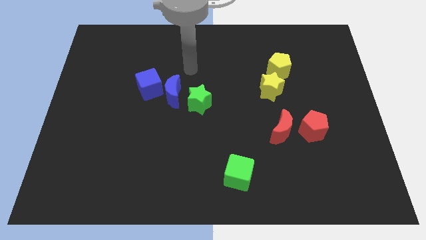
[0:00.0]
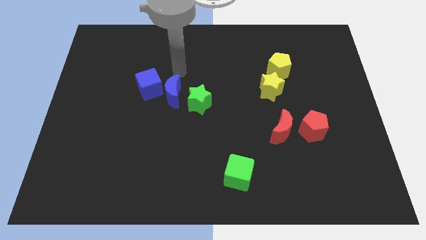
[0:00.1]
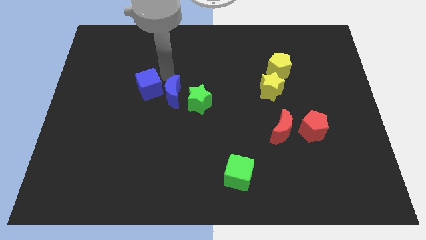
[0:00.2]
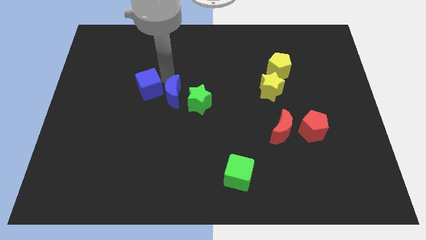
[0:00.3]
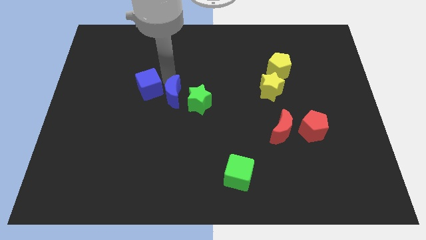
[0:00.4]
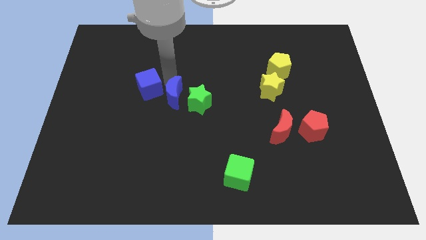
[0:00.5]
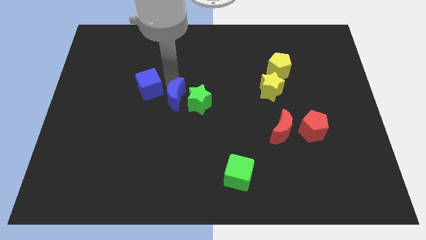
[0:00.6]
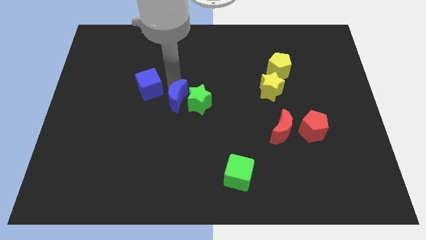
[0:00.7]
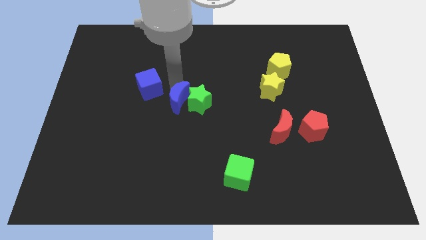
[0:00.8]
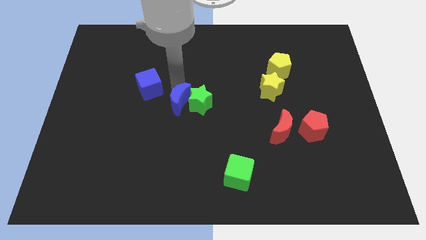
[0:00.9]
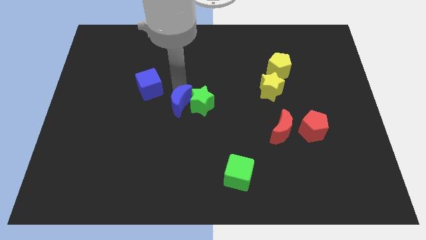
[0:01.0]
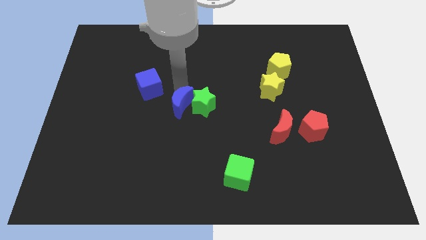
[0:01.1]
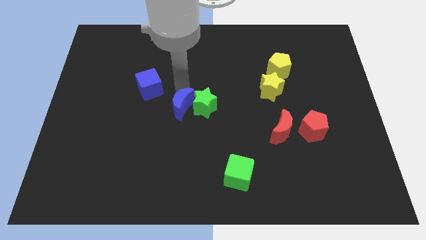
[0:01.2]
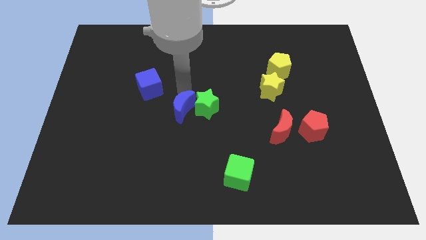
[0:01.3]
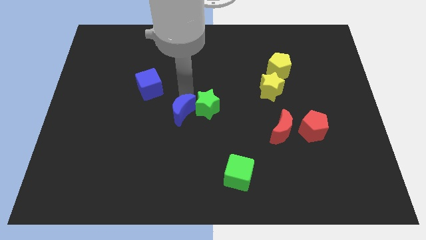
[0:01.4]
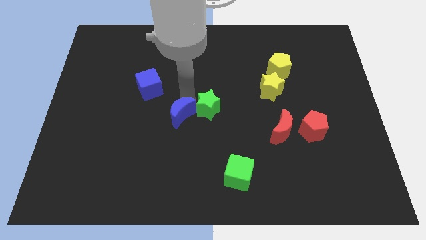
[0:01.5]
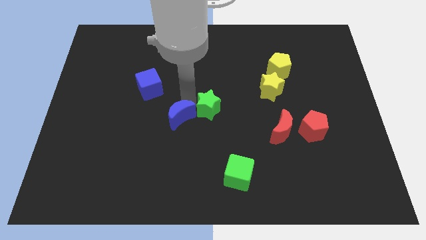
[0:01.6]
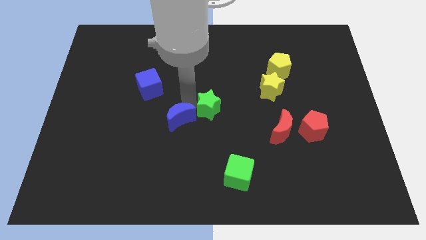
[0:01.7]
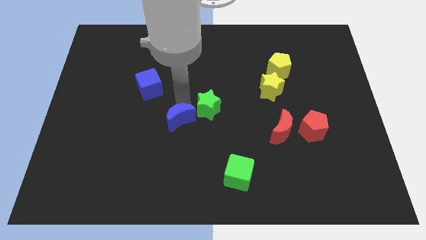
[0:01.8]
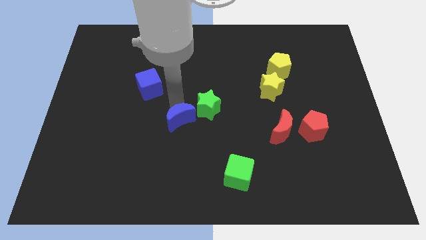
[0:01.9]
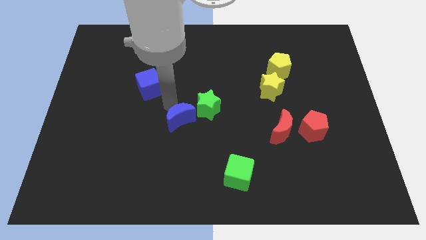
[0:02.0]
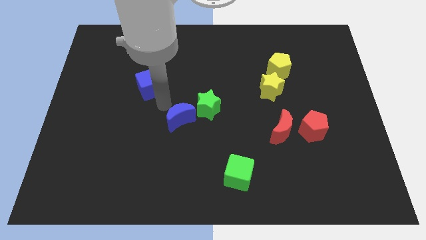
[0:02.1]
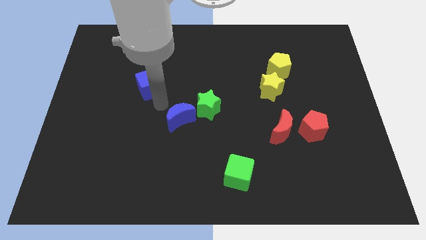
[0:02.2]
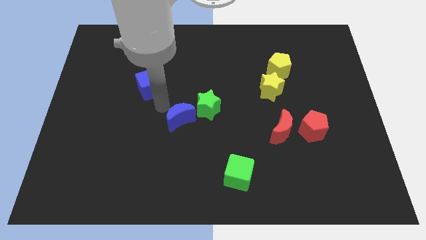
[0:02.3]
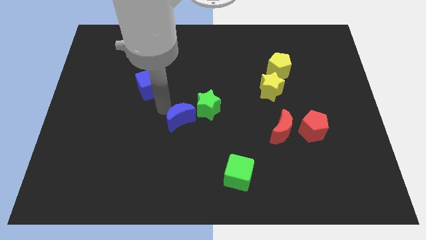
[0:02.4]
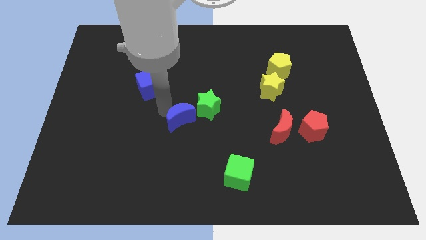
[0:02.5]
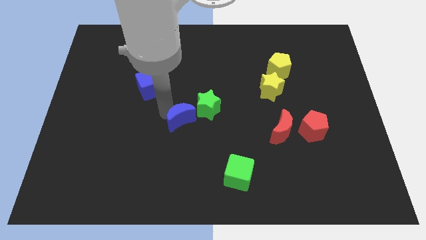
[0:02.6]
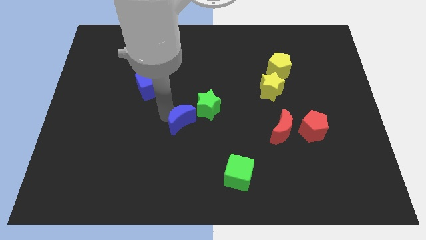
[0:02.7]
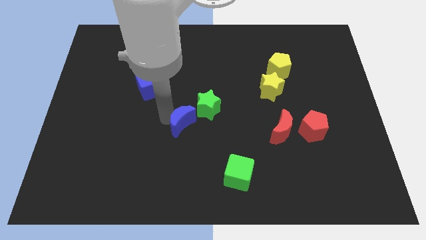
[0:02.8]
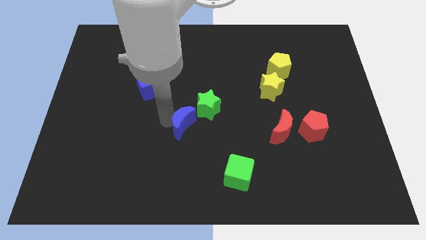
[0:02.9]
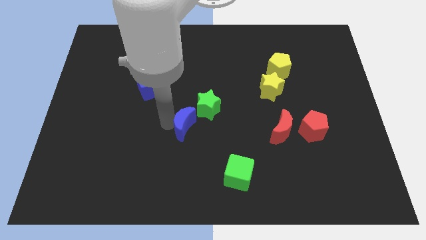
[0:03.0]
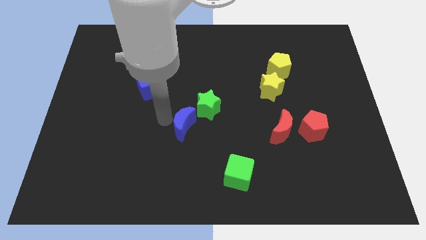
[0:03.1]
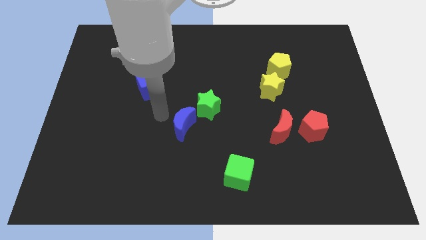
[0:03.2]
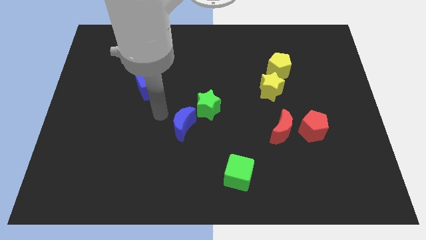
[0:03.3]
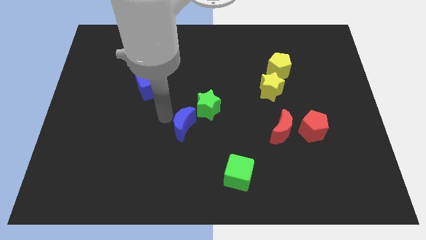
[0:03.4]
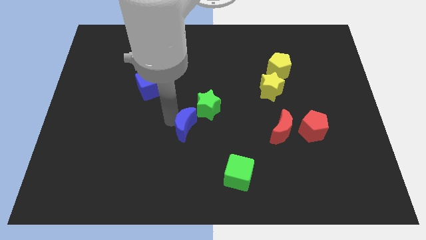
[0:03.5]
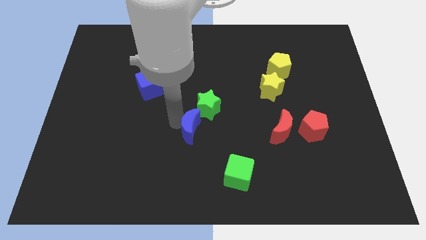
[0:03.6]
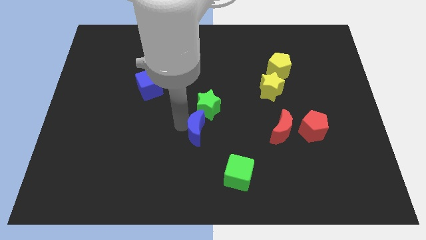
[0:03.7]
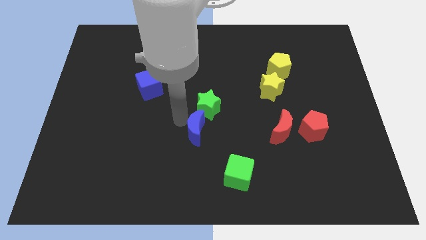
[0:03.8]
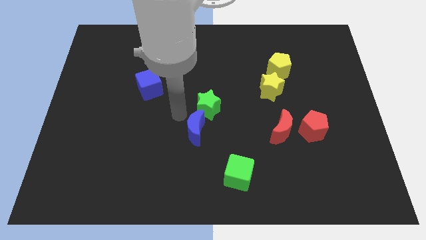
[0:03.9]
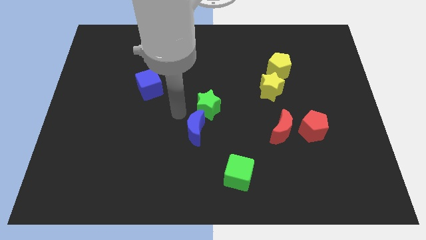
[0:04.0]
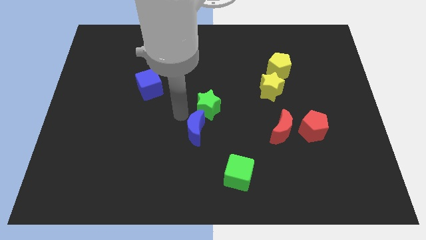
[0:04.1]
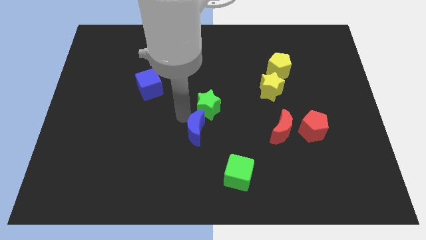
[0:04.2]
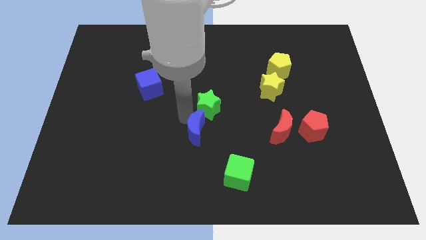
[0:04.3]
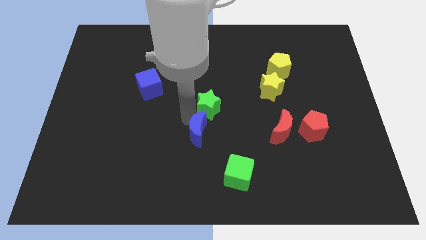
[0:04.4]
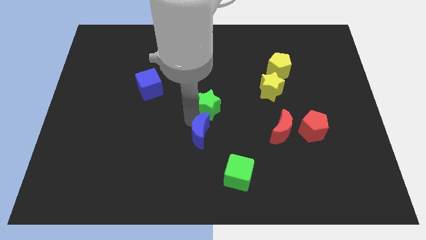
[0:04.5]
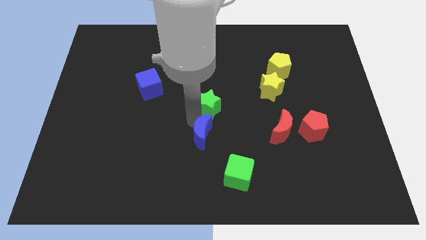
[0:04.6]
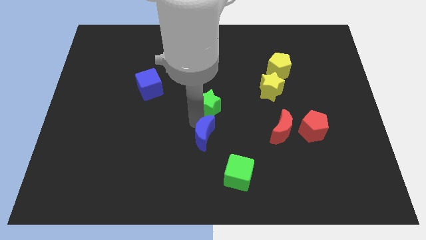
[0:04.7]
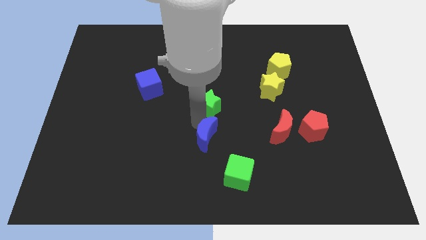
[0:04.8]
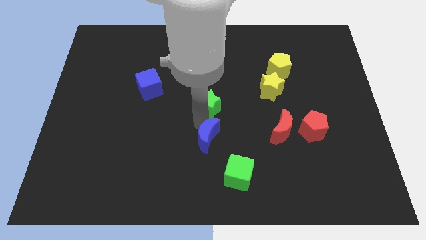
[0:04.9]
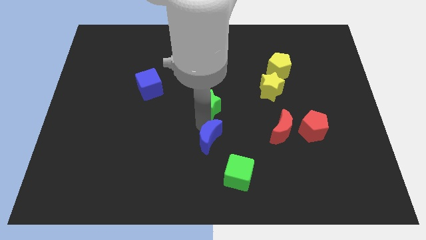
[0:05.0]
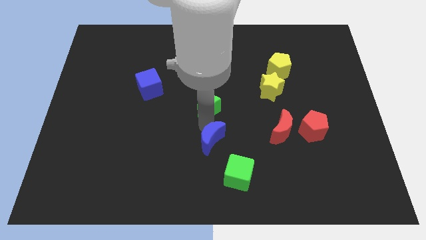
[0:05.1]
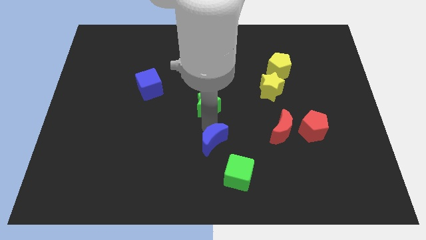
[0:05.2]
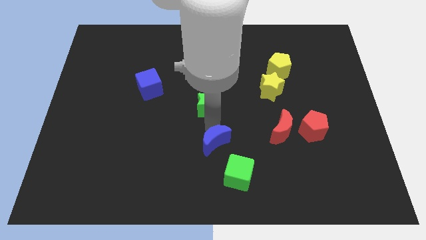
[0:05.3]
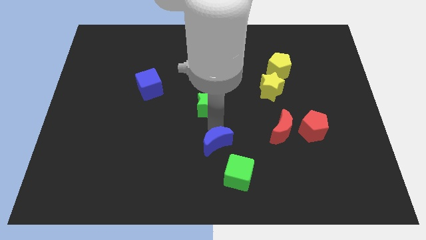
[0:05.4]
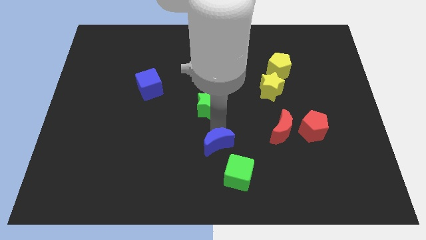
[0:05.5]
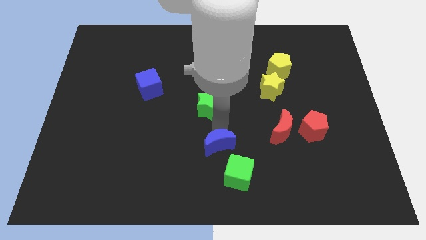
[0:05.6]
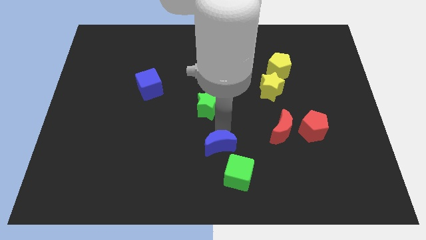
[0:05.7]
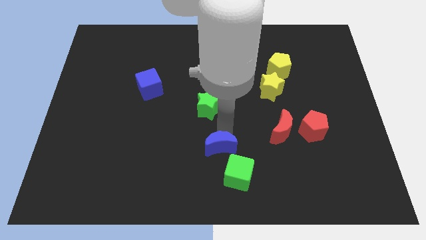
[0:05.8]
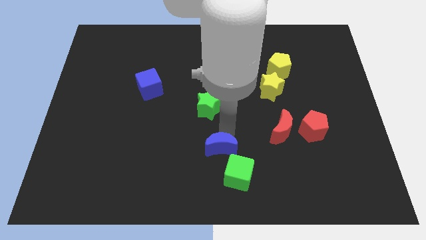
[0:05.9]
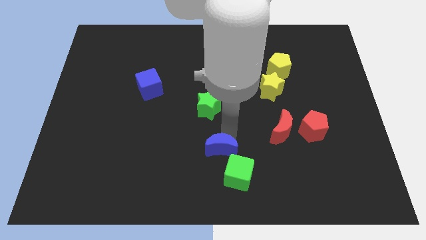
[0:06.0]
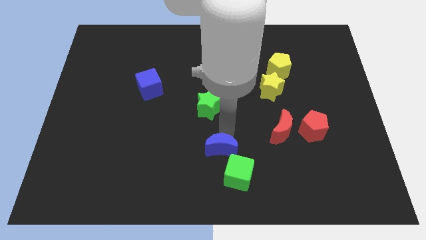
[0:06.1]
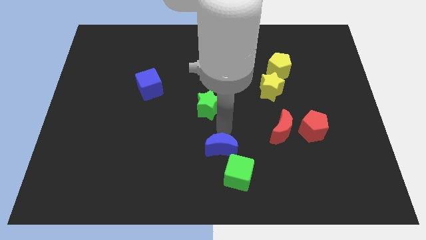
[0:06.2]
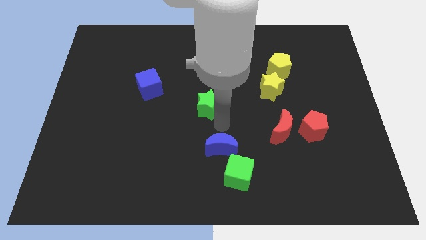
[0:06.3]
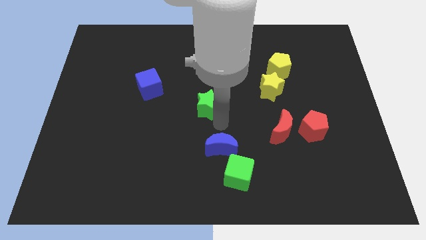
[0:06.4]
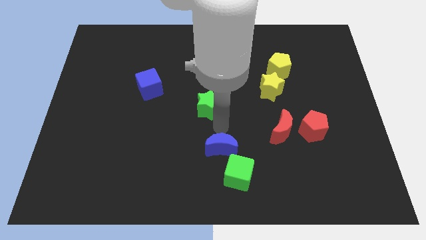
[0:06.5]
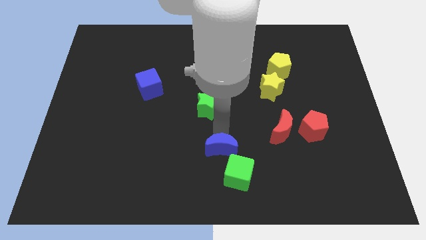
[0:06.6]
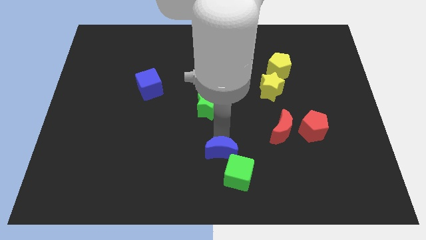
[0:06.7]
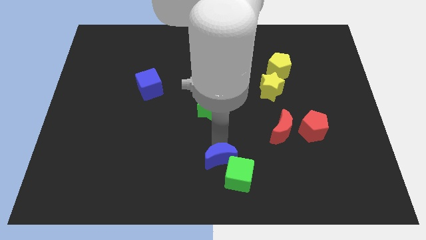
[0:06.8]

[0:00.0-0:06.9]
put the blue moon close to the green cube
